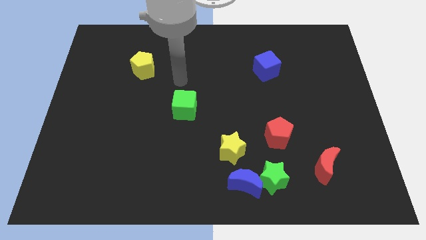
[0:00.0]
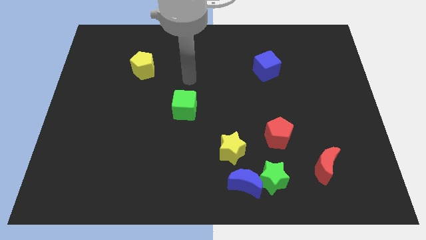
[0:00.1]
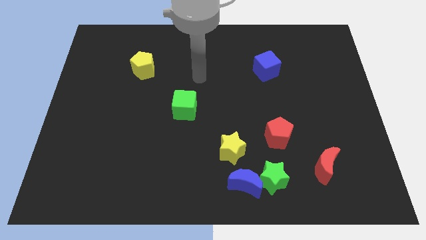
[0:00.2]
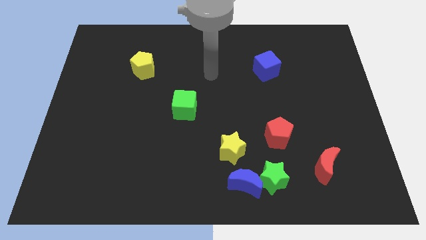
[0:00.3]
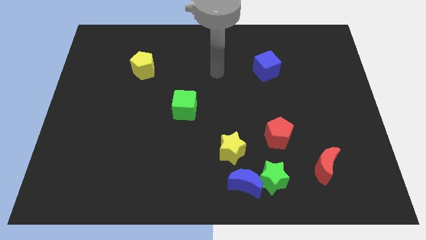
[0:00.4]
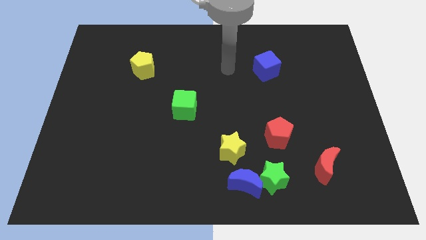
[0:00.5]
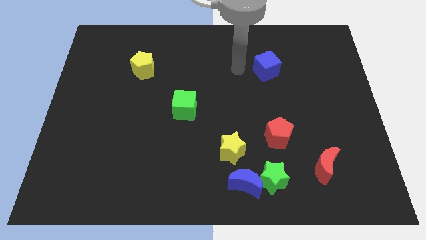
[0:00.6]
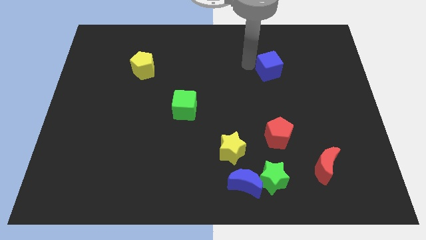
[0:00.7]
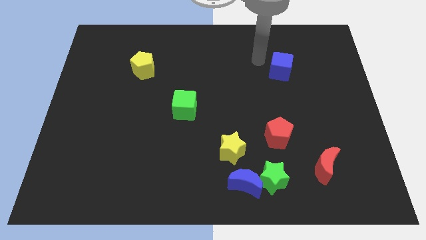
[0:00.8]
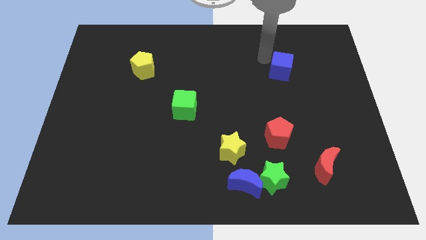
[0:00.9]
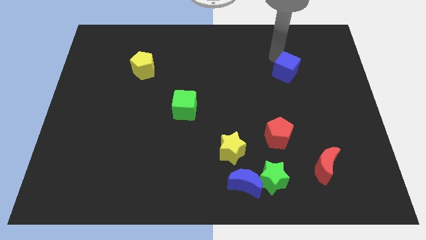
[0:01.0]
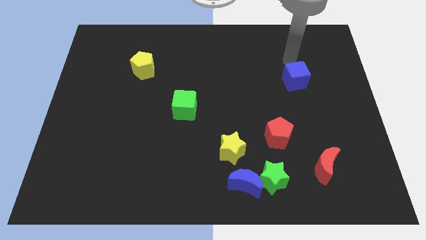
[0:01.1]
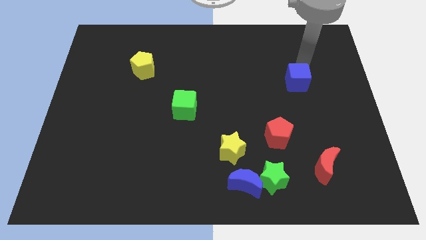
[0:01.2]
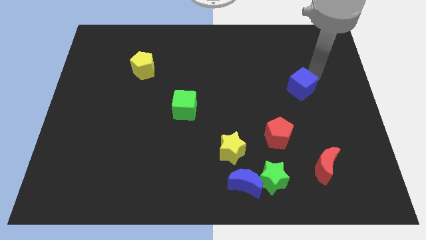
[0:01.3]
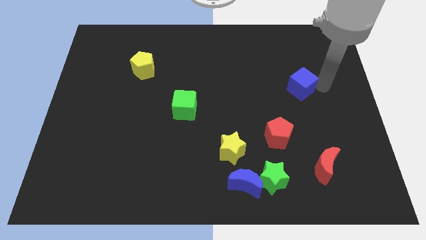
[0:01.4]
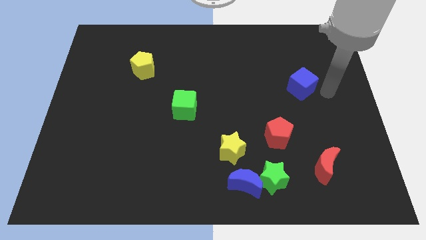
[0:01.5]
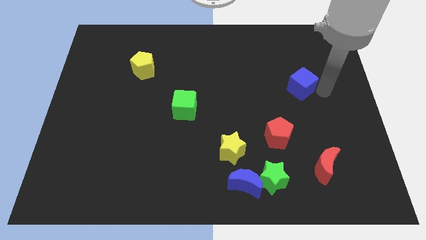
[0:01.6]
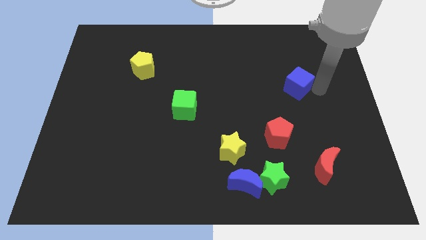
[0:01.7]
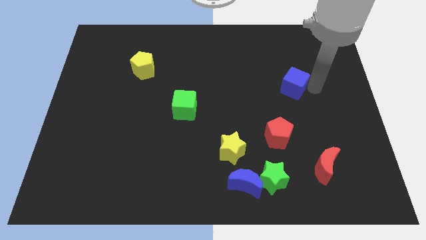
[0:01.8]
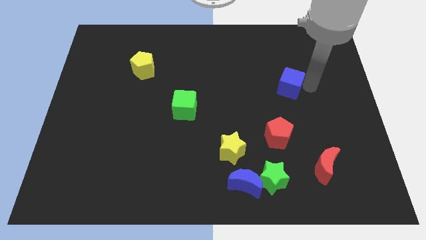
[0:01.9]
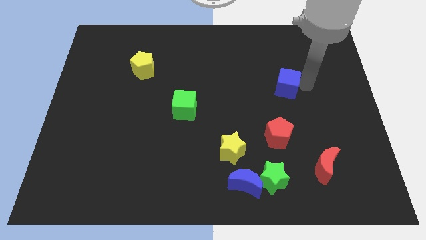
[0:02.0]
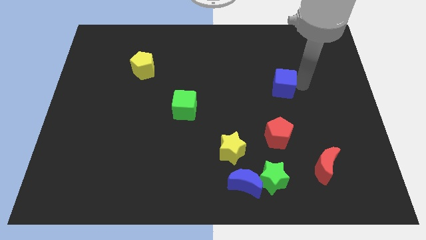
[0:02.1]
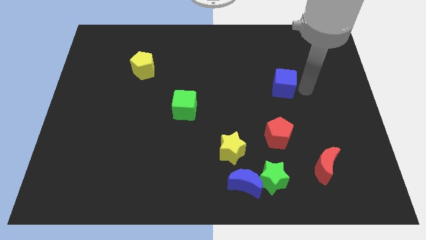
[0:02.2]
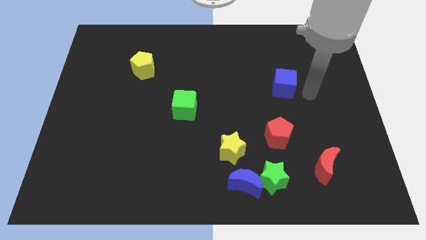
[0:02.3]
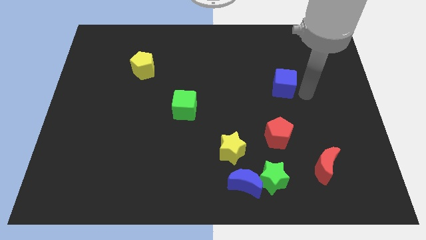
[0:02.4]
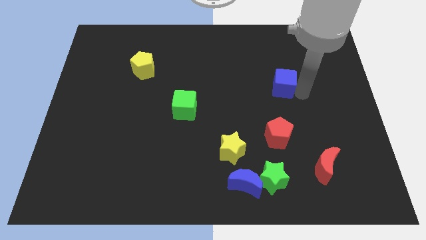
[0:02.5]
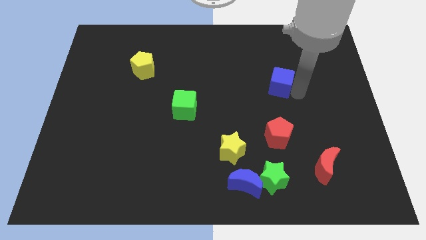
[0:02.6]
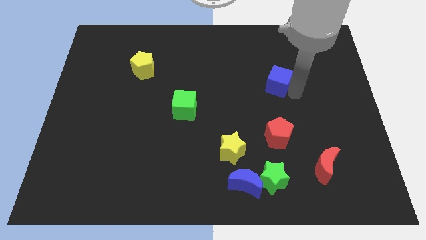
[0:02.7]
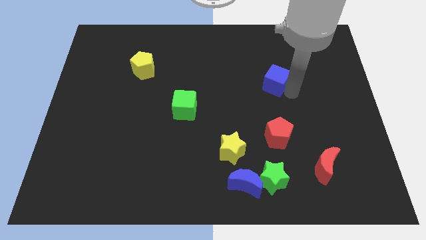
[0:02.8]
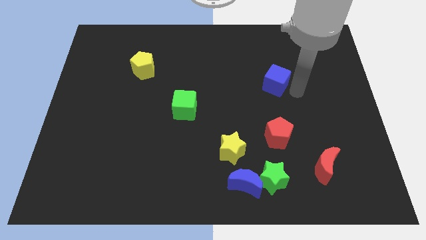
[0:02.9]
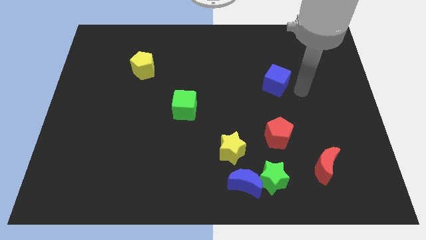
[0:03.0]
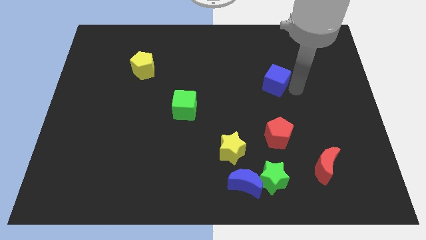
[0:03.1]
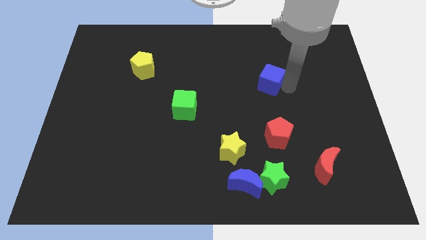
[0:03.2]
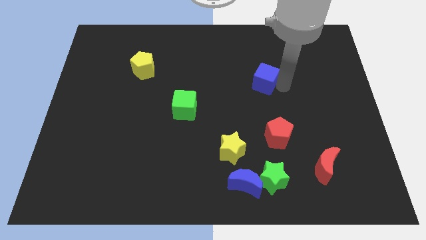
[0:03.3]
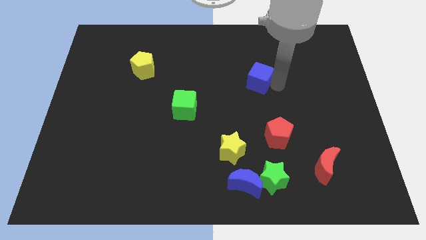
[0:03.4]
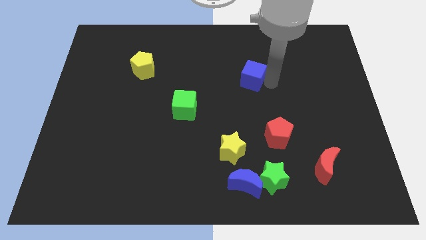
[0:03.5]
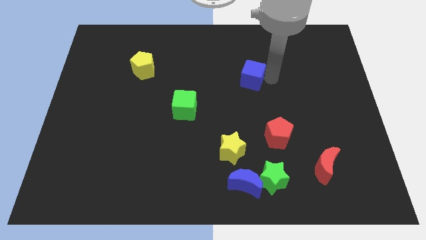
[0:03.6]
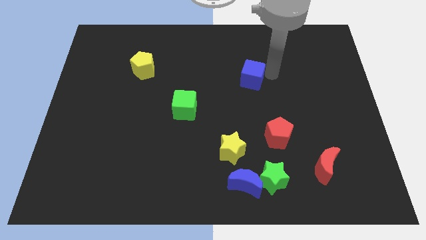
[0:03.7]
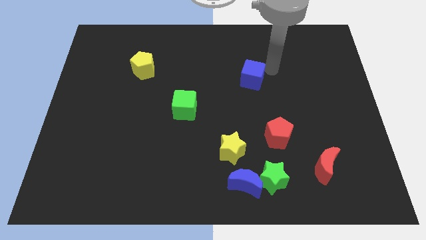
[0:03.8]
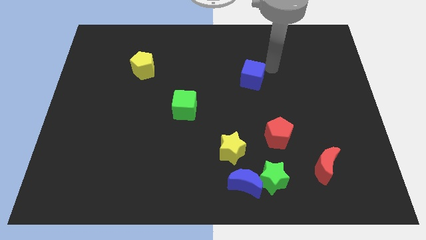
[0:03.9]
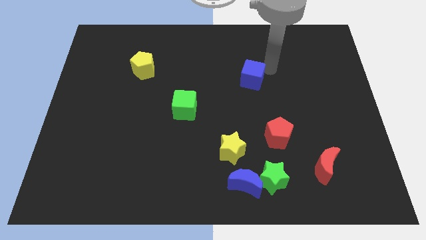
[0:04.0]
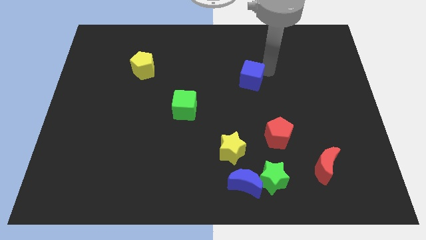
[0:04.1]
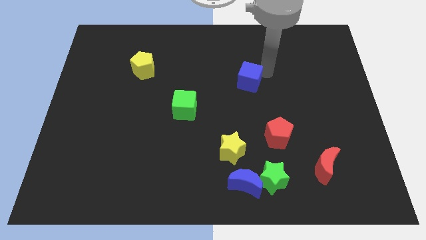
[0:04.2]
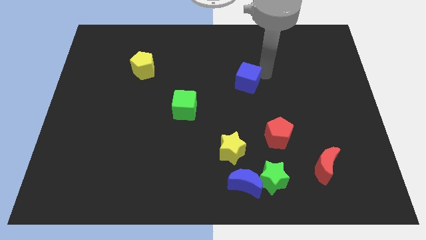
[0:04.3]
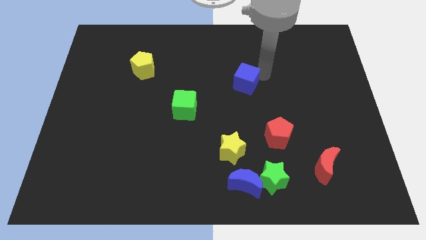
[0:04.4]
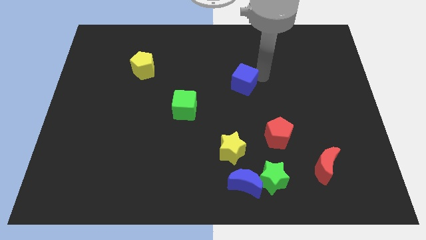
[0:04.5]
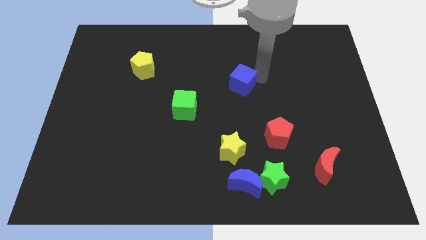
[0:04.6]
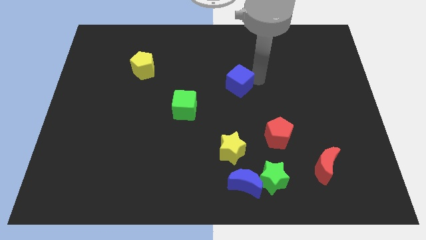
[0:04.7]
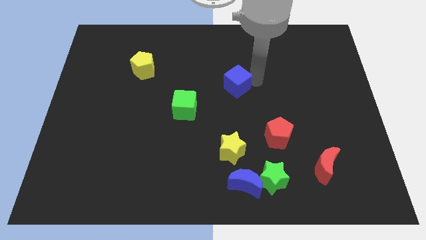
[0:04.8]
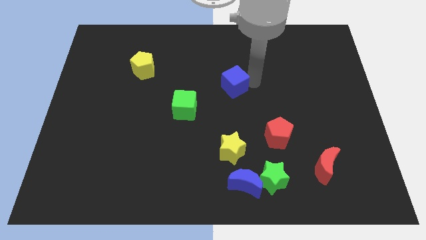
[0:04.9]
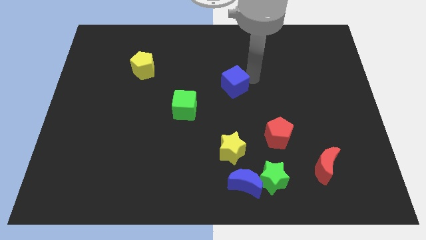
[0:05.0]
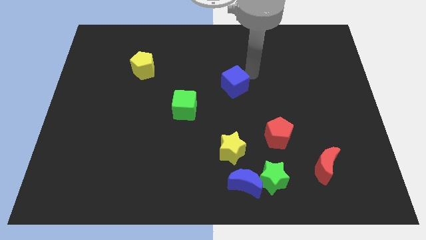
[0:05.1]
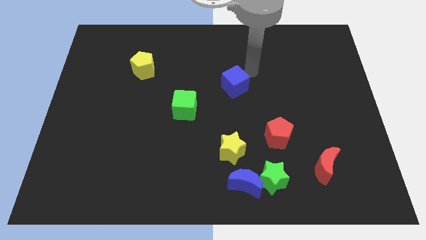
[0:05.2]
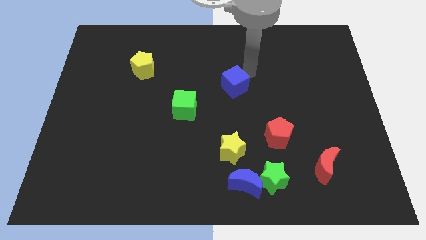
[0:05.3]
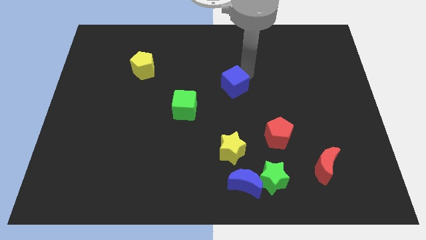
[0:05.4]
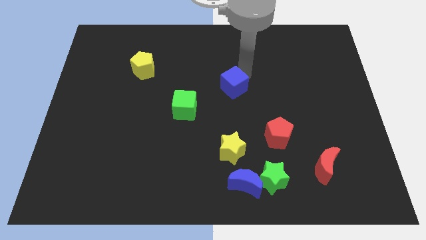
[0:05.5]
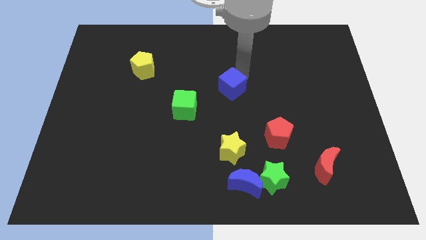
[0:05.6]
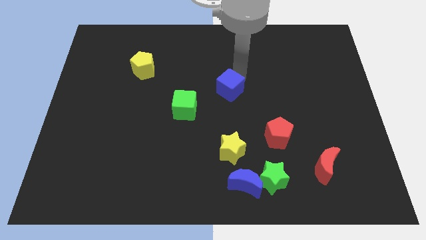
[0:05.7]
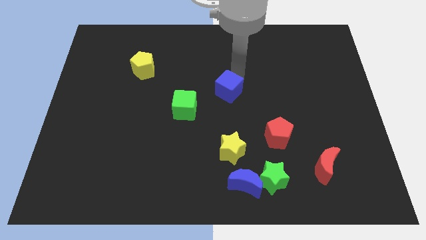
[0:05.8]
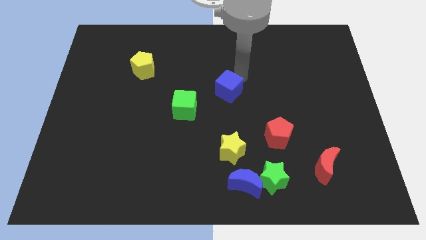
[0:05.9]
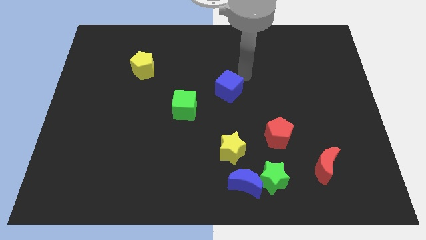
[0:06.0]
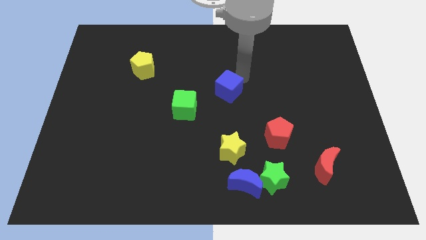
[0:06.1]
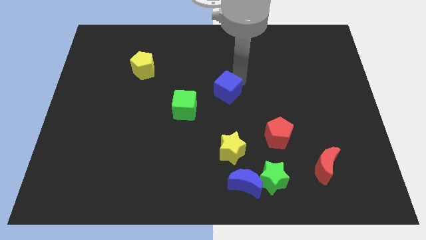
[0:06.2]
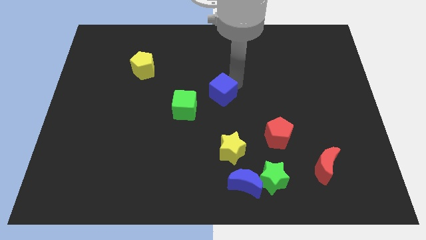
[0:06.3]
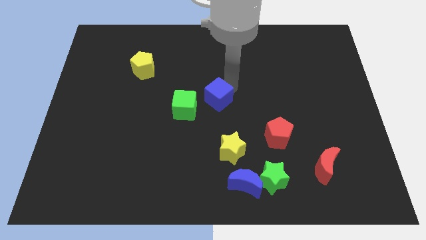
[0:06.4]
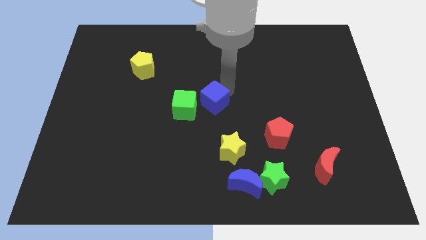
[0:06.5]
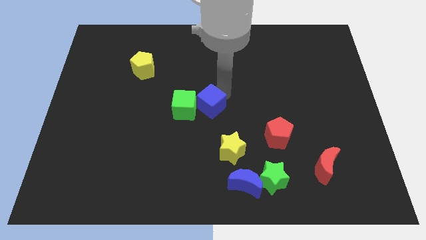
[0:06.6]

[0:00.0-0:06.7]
move the blue cube towards the green cube

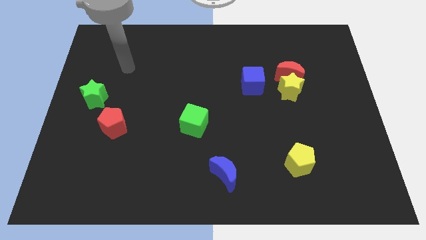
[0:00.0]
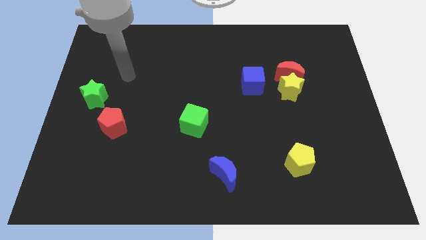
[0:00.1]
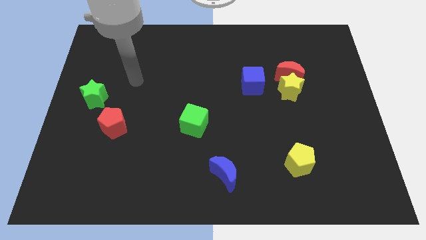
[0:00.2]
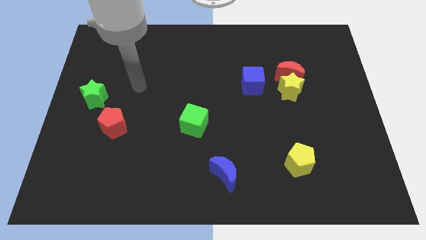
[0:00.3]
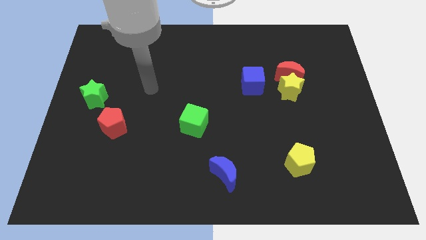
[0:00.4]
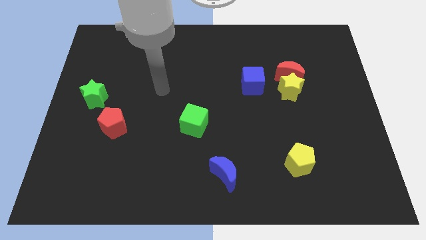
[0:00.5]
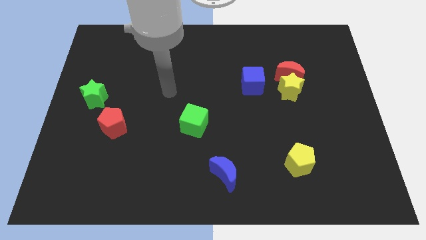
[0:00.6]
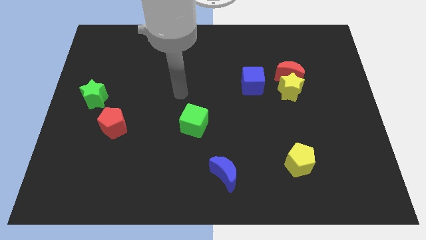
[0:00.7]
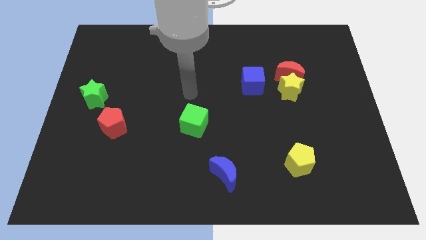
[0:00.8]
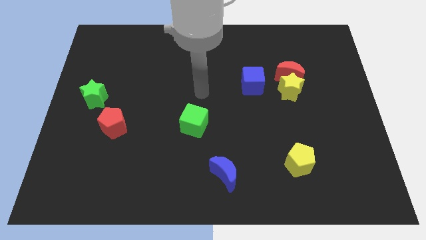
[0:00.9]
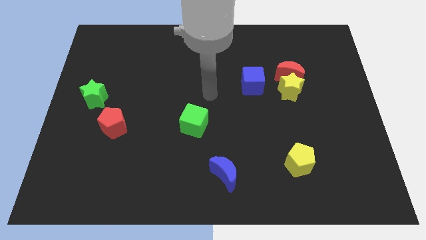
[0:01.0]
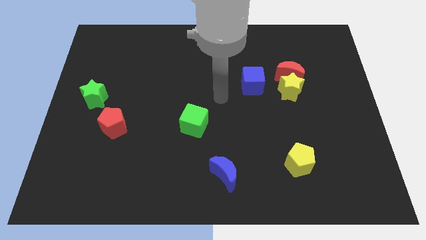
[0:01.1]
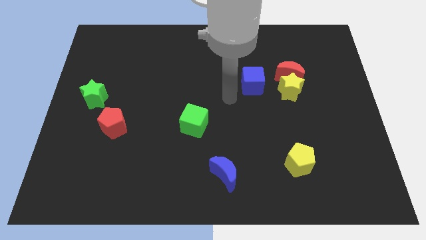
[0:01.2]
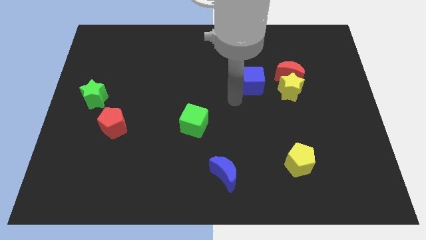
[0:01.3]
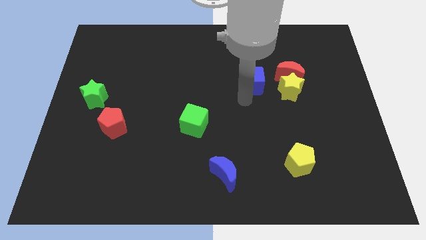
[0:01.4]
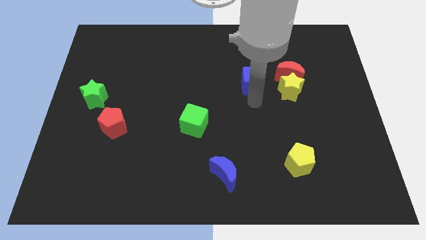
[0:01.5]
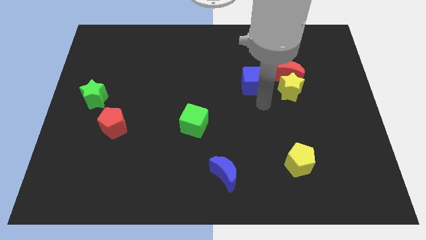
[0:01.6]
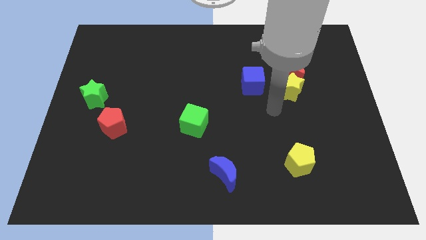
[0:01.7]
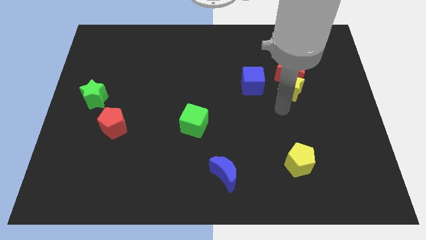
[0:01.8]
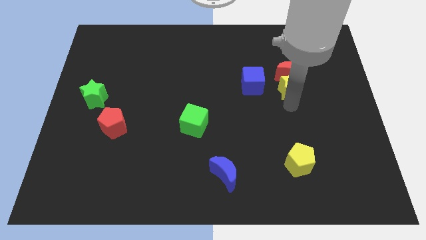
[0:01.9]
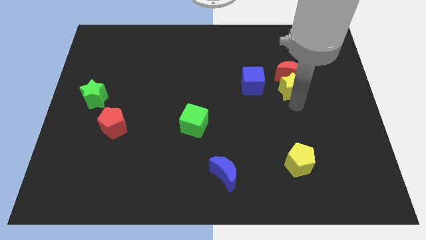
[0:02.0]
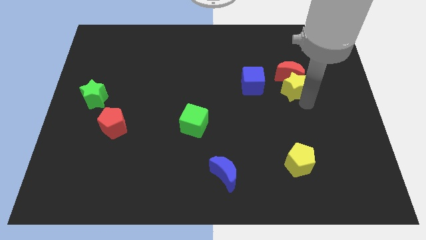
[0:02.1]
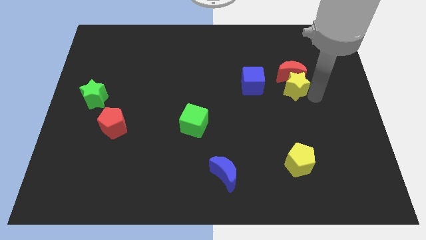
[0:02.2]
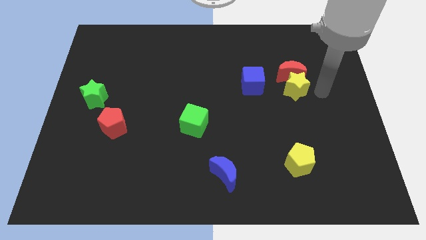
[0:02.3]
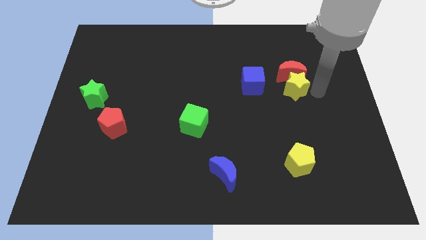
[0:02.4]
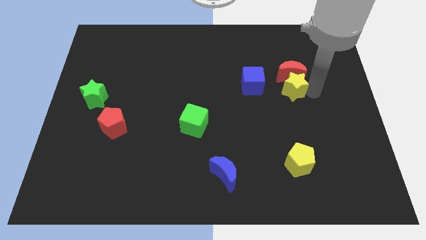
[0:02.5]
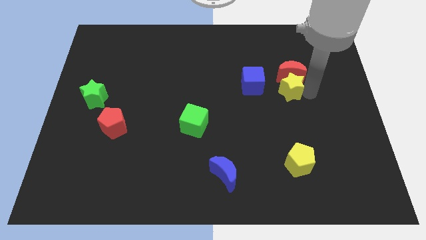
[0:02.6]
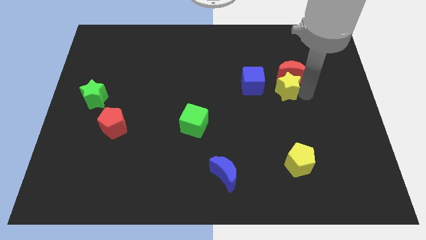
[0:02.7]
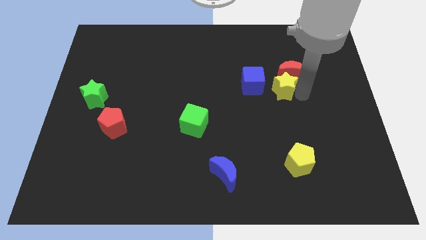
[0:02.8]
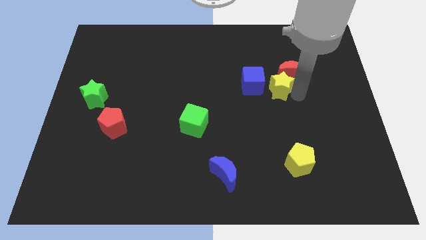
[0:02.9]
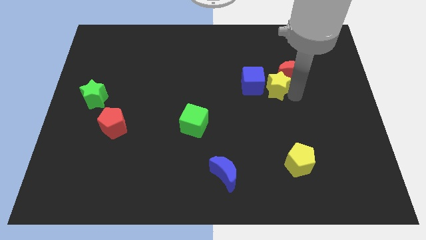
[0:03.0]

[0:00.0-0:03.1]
slide the yellow star close to the blue cube
